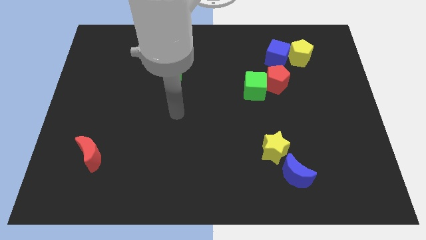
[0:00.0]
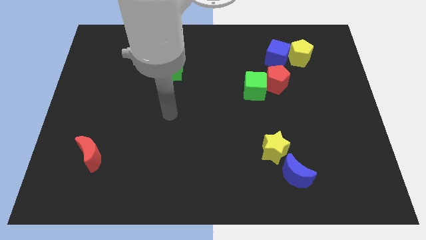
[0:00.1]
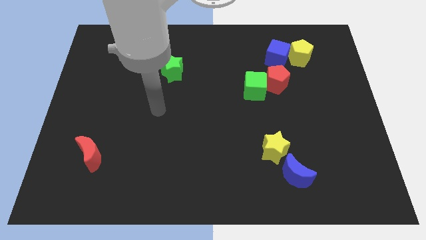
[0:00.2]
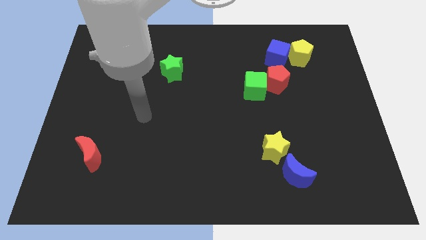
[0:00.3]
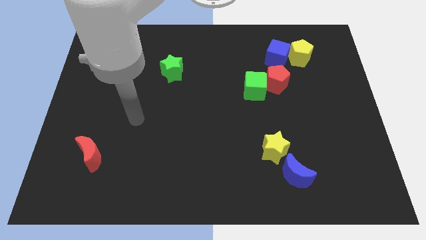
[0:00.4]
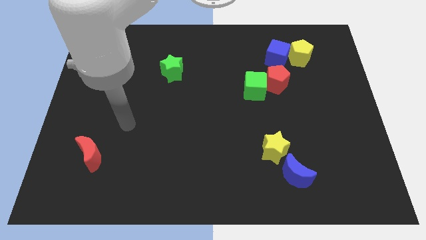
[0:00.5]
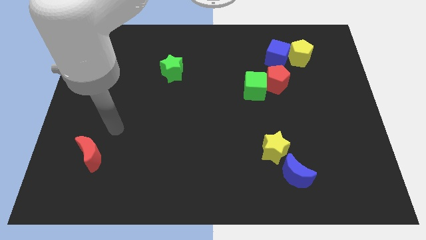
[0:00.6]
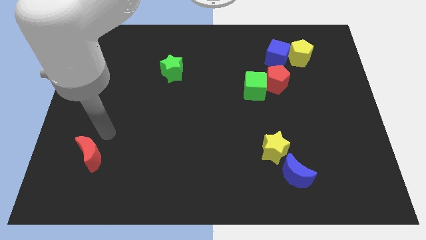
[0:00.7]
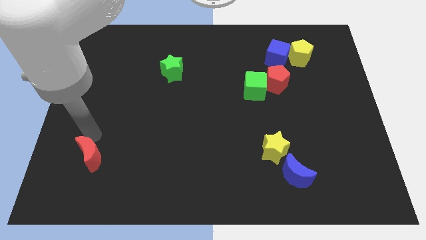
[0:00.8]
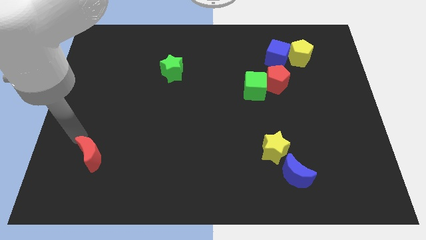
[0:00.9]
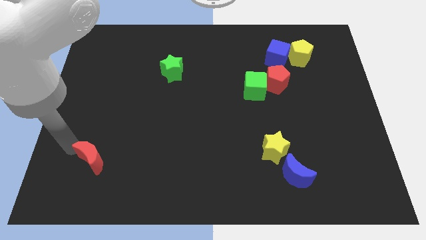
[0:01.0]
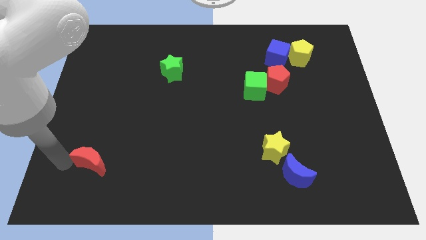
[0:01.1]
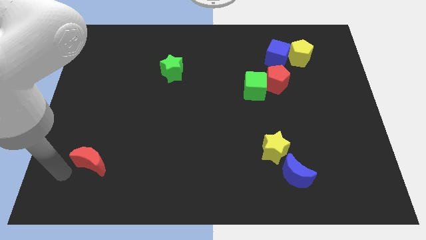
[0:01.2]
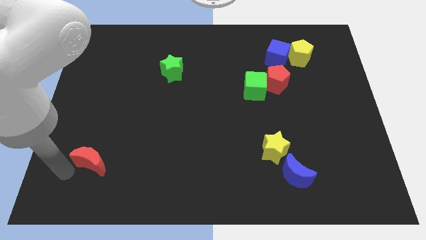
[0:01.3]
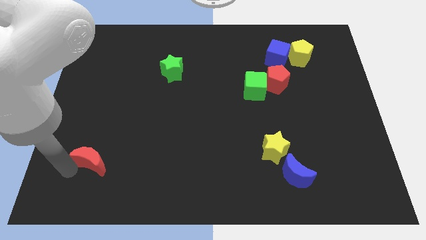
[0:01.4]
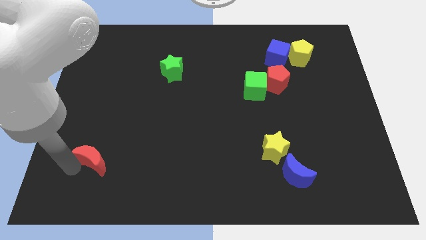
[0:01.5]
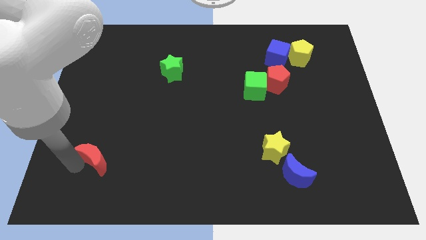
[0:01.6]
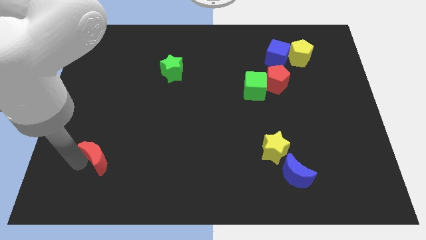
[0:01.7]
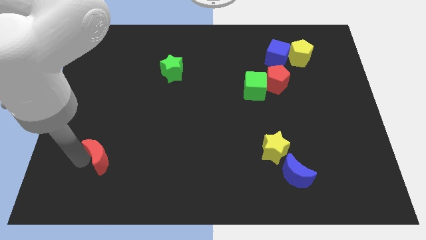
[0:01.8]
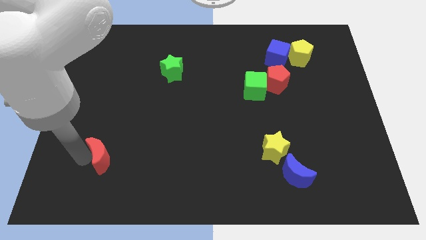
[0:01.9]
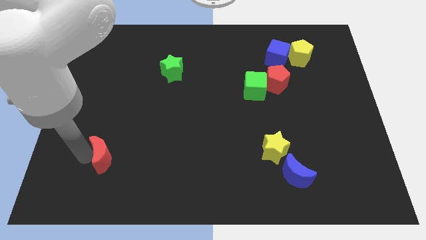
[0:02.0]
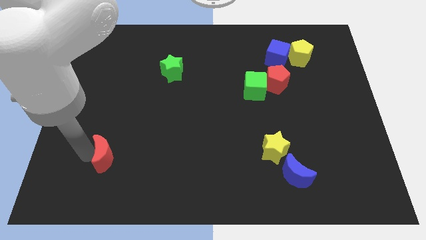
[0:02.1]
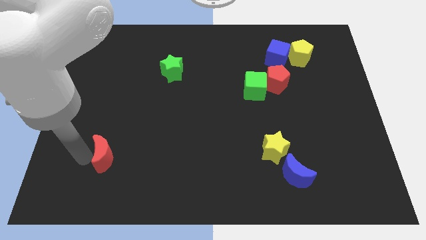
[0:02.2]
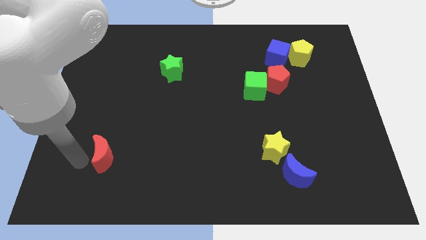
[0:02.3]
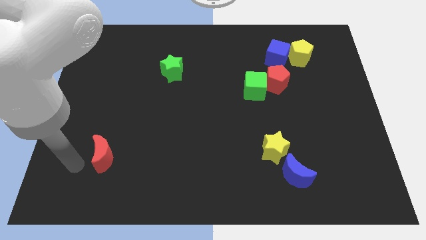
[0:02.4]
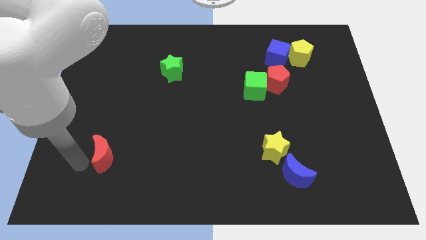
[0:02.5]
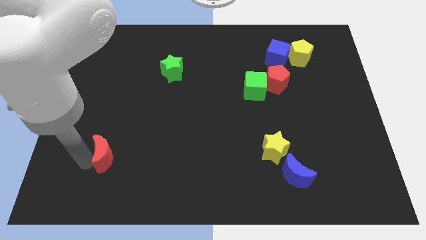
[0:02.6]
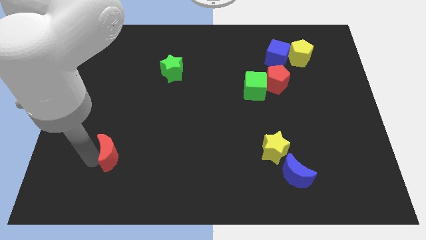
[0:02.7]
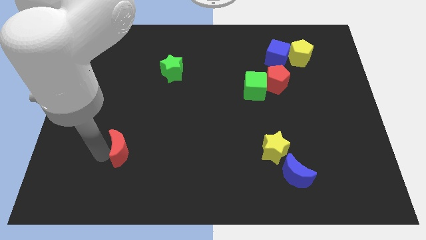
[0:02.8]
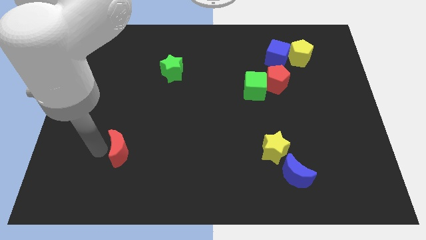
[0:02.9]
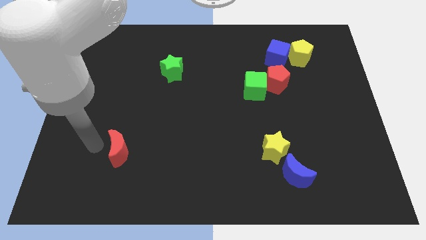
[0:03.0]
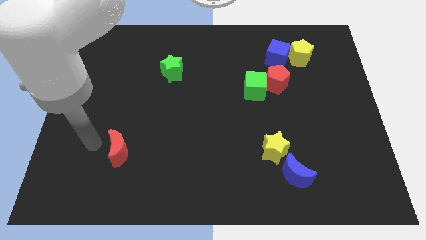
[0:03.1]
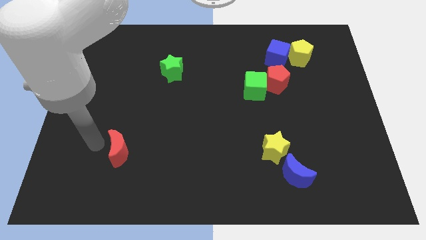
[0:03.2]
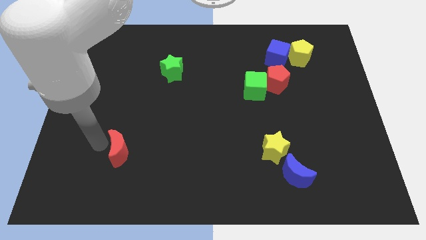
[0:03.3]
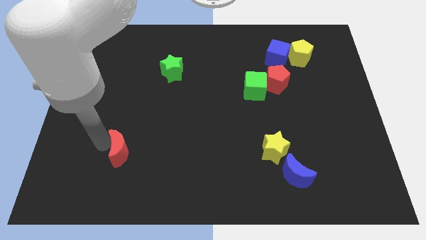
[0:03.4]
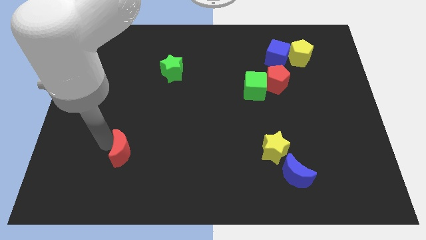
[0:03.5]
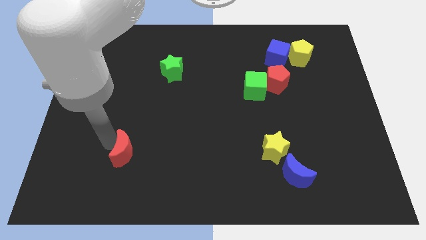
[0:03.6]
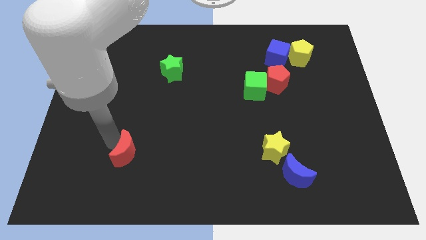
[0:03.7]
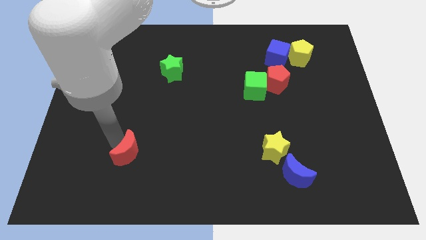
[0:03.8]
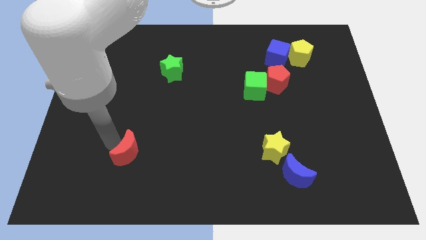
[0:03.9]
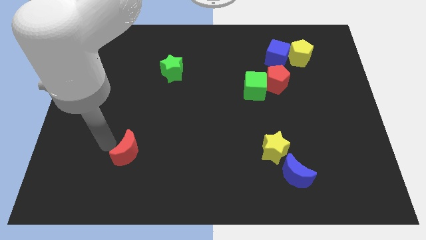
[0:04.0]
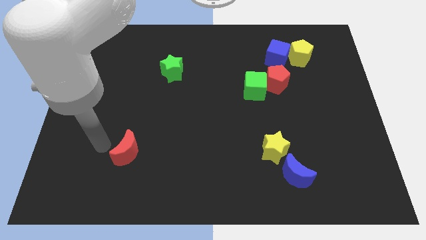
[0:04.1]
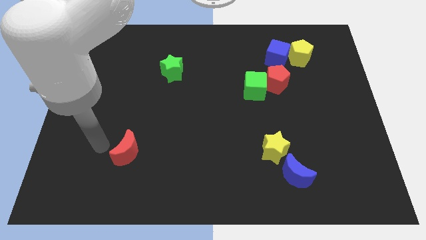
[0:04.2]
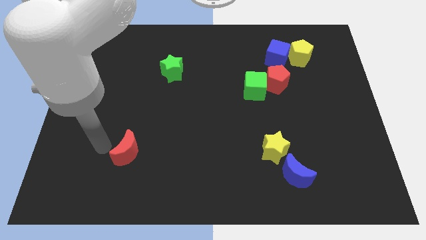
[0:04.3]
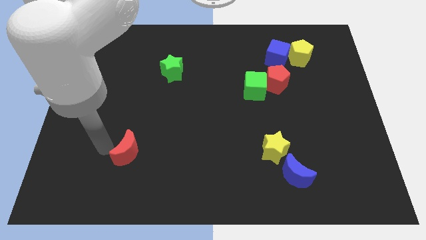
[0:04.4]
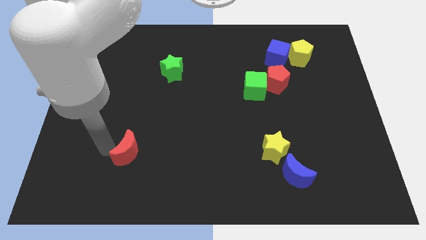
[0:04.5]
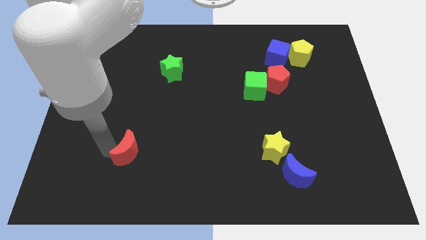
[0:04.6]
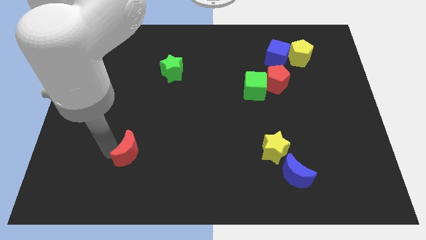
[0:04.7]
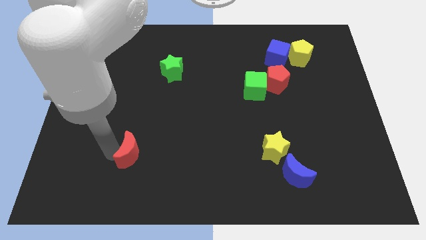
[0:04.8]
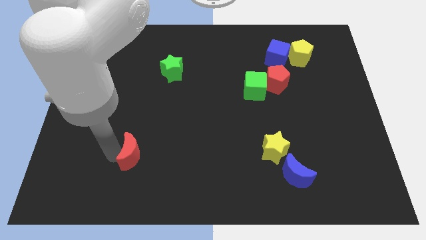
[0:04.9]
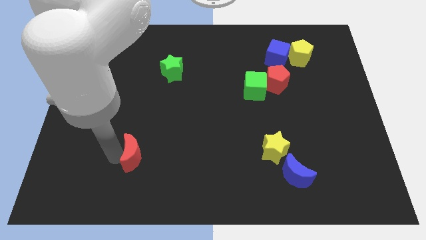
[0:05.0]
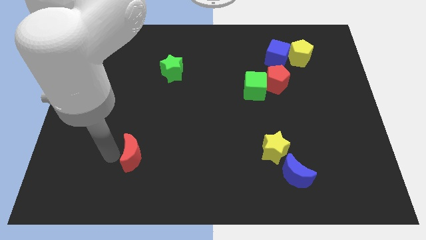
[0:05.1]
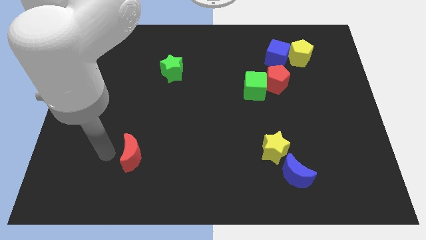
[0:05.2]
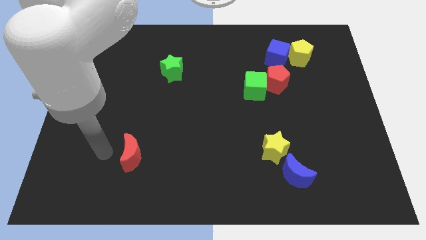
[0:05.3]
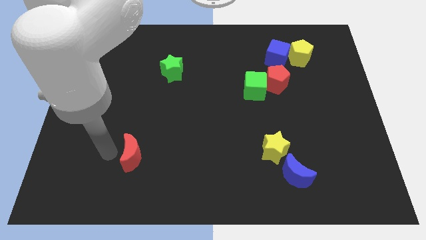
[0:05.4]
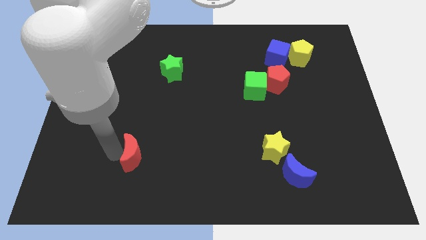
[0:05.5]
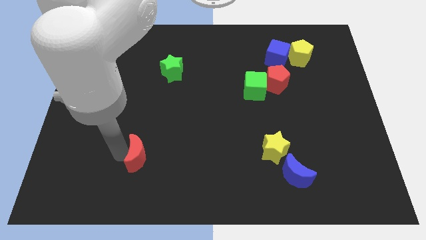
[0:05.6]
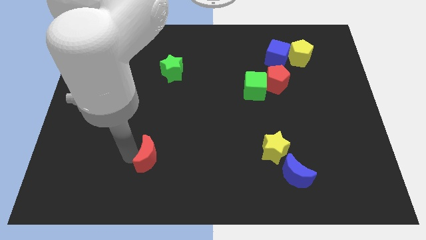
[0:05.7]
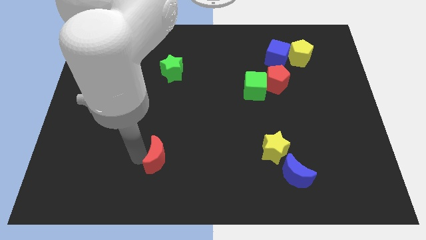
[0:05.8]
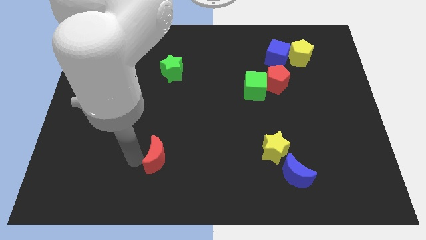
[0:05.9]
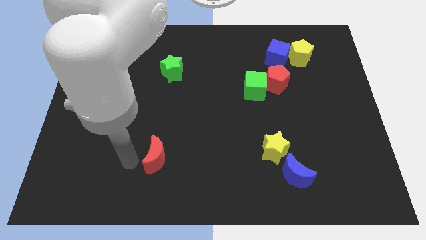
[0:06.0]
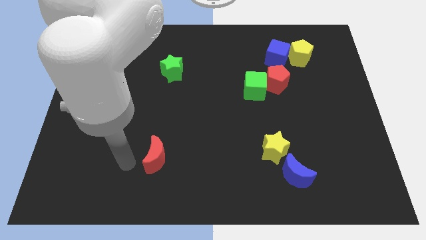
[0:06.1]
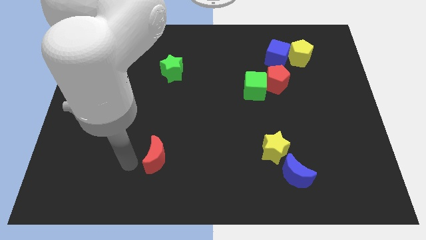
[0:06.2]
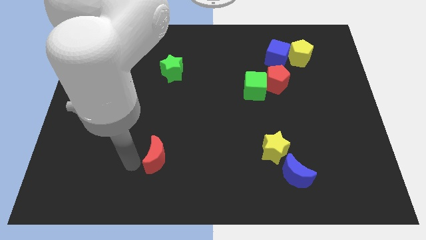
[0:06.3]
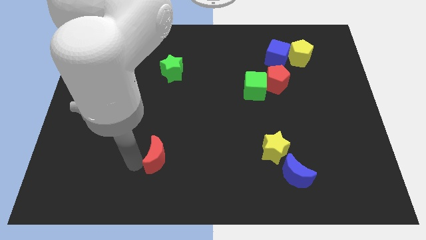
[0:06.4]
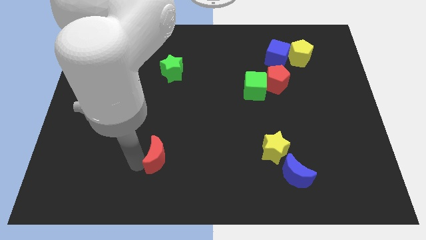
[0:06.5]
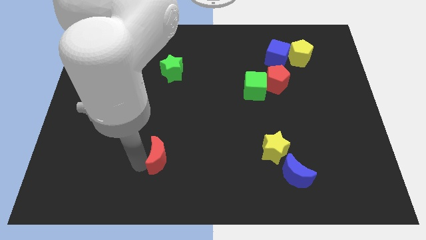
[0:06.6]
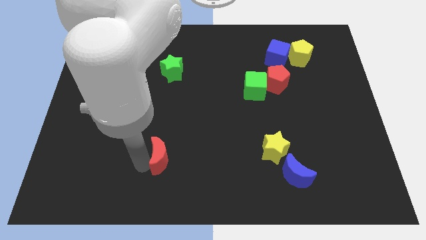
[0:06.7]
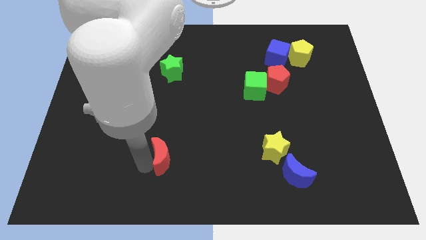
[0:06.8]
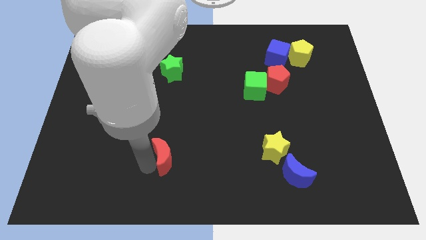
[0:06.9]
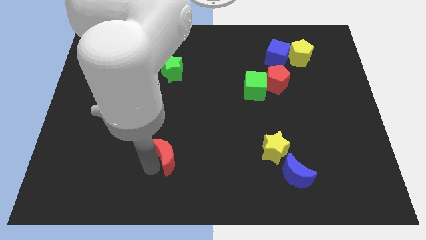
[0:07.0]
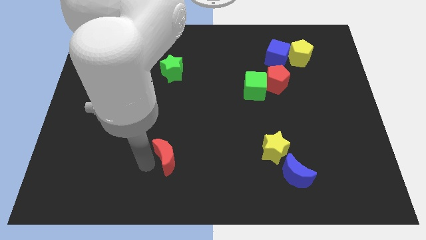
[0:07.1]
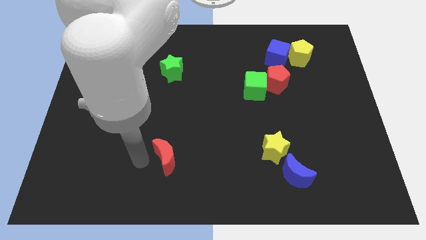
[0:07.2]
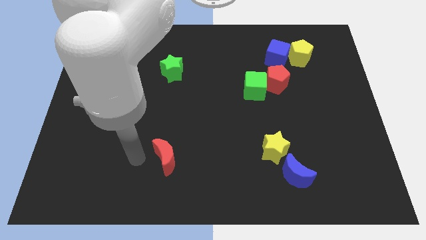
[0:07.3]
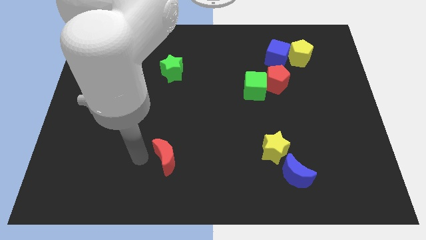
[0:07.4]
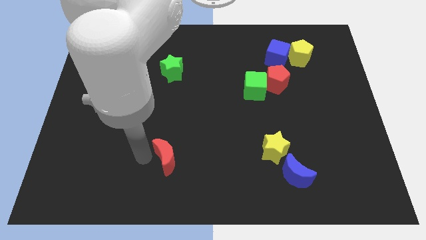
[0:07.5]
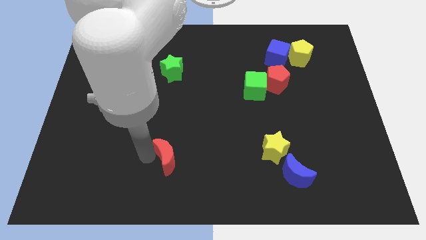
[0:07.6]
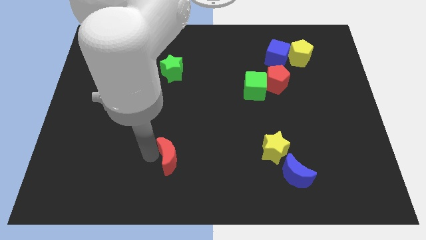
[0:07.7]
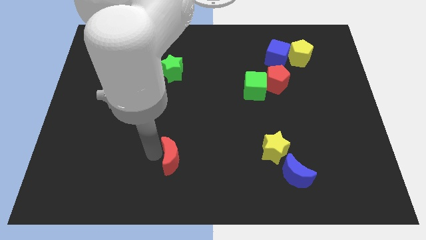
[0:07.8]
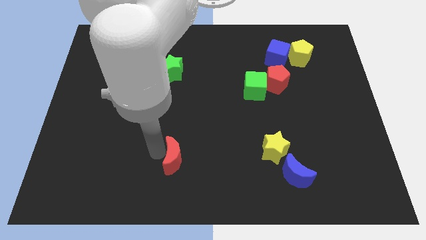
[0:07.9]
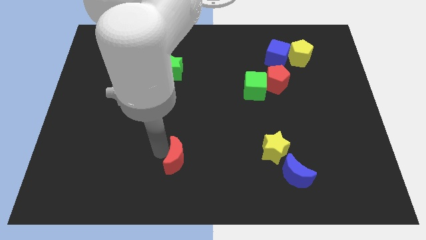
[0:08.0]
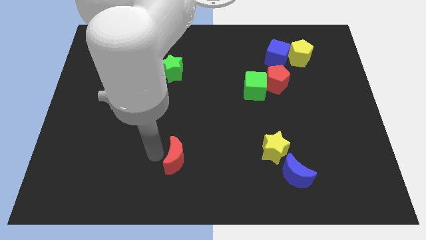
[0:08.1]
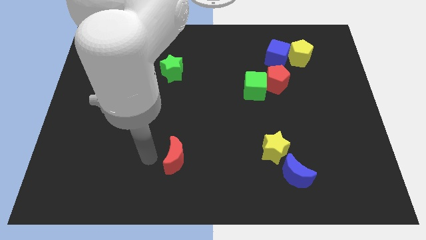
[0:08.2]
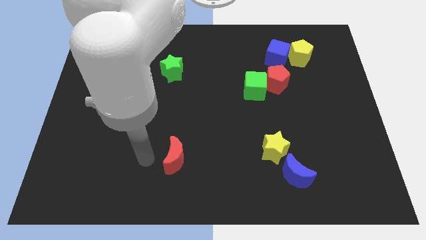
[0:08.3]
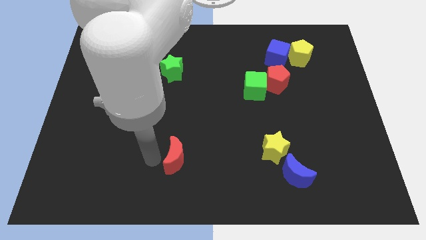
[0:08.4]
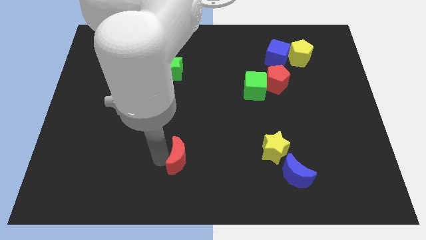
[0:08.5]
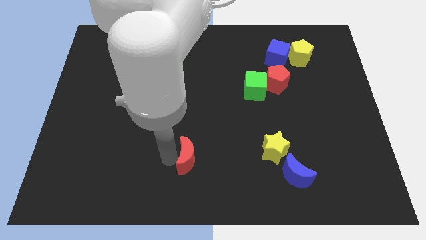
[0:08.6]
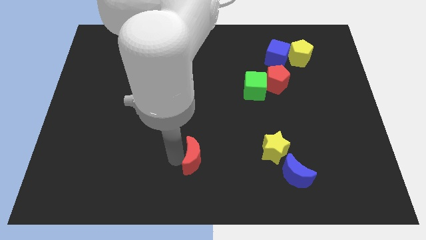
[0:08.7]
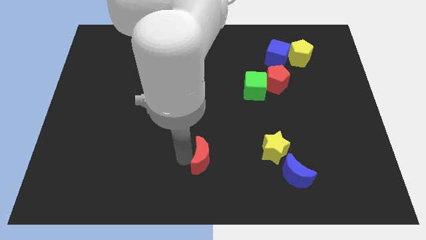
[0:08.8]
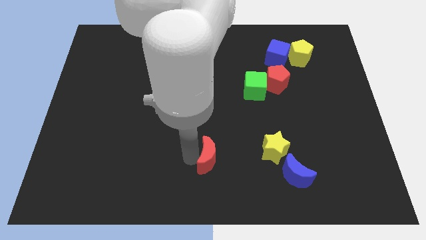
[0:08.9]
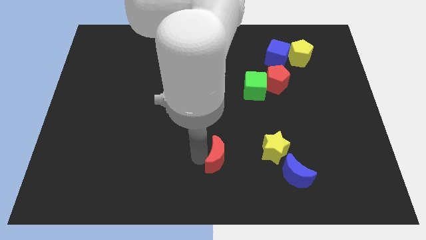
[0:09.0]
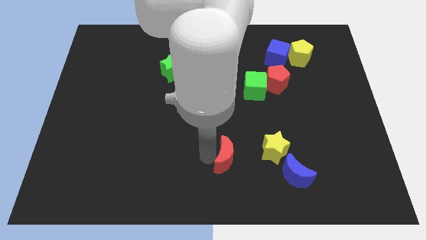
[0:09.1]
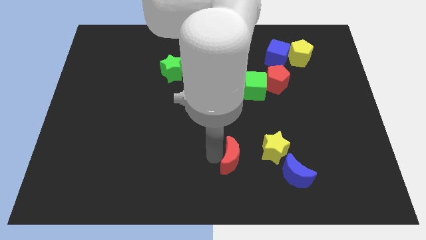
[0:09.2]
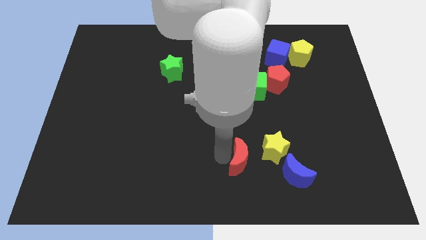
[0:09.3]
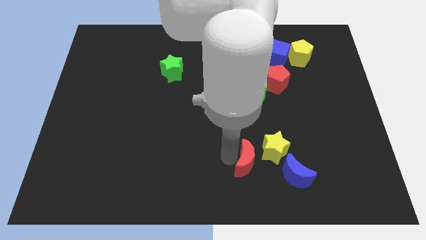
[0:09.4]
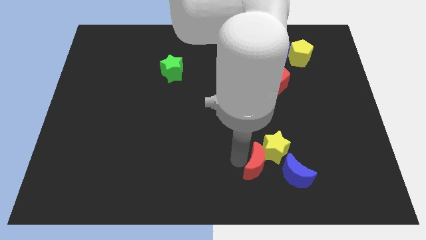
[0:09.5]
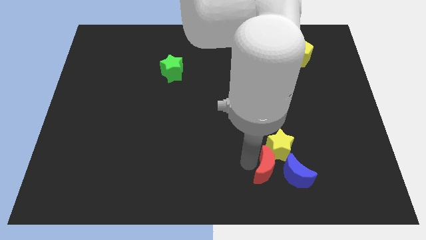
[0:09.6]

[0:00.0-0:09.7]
move the red moon close to the blue moon
